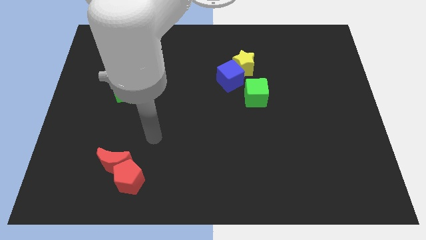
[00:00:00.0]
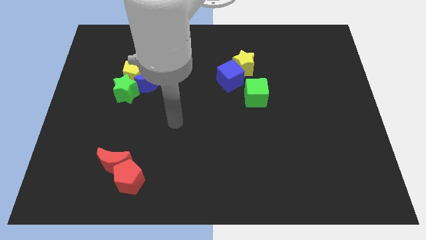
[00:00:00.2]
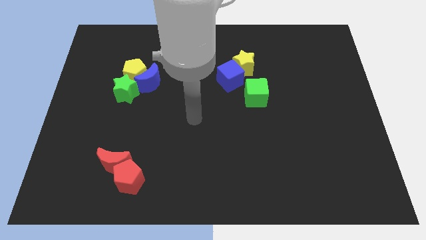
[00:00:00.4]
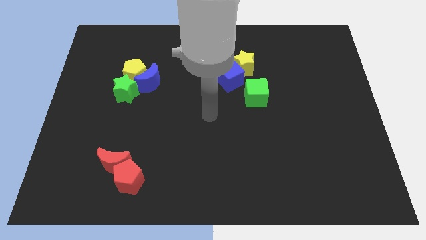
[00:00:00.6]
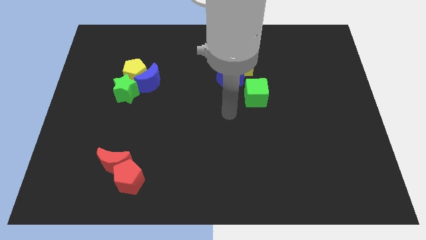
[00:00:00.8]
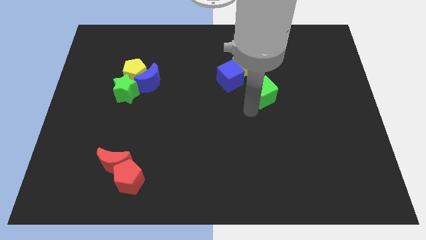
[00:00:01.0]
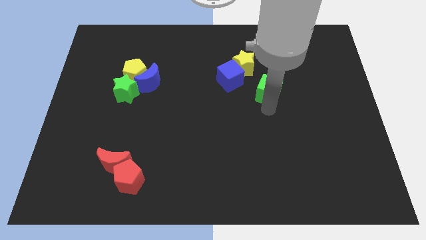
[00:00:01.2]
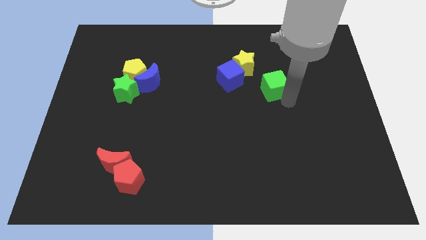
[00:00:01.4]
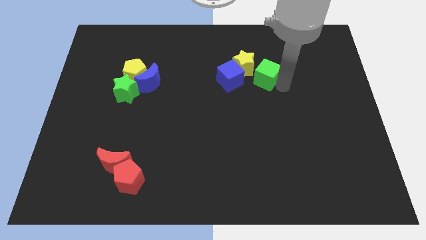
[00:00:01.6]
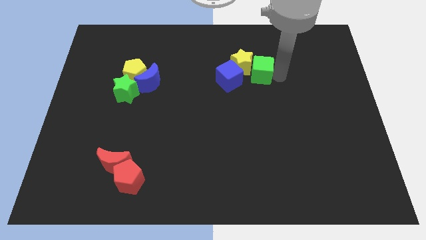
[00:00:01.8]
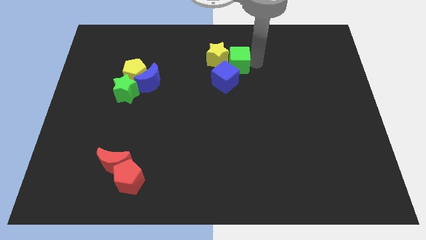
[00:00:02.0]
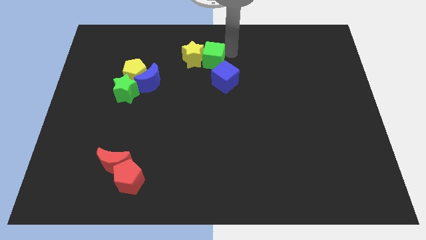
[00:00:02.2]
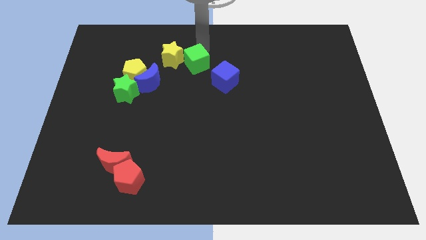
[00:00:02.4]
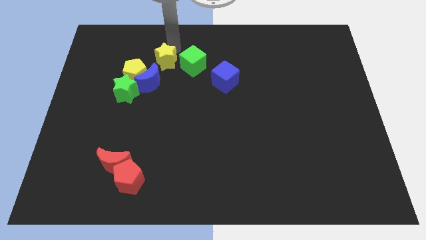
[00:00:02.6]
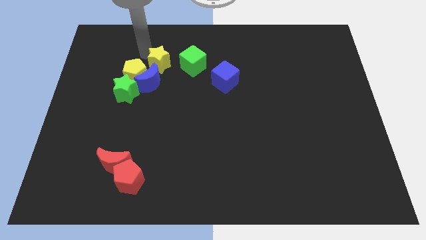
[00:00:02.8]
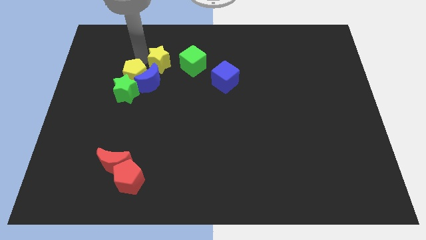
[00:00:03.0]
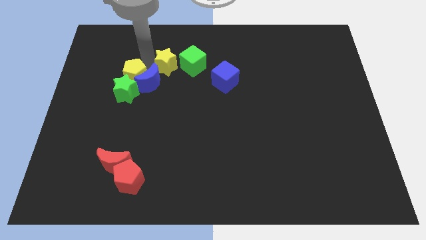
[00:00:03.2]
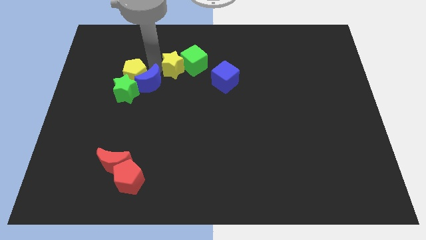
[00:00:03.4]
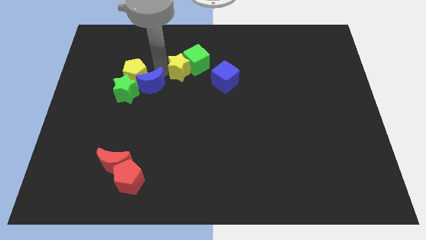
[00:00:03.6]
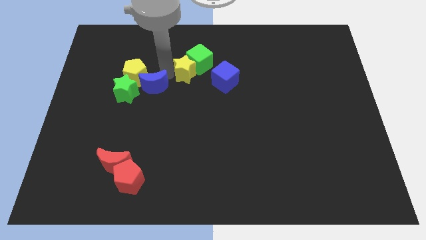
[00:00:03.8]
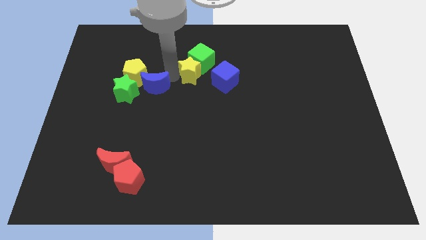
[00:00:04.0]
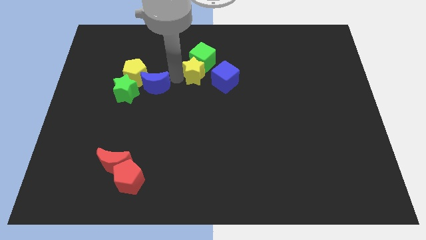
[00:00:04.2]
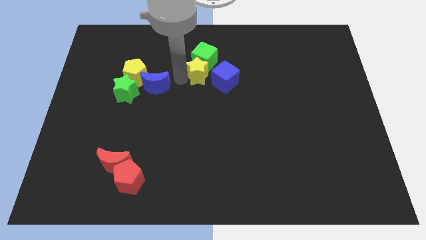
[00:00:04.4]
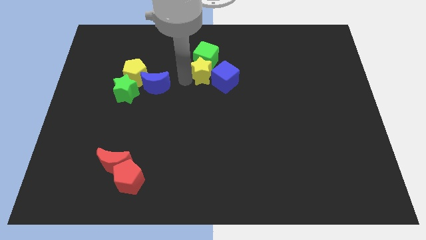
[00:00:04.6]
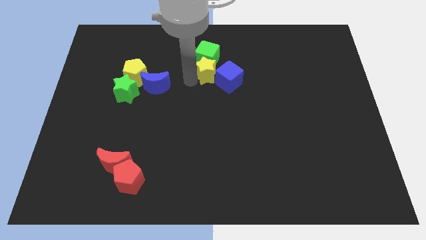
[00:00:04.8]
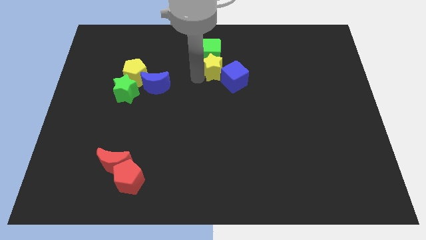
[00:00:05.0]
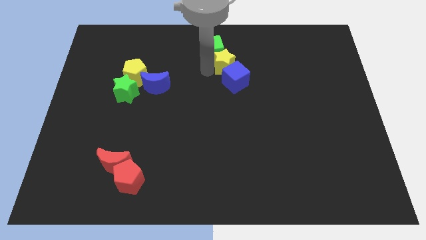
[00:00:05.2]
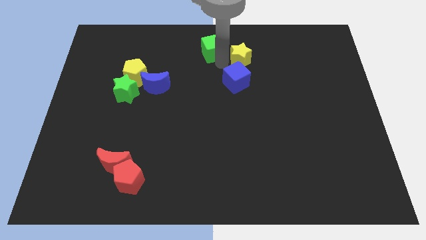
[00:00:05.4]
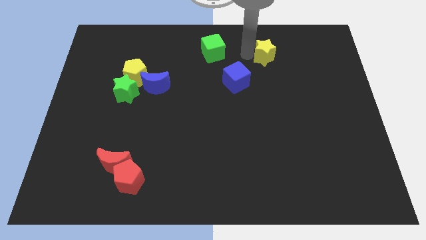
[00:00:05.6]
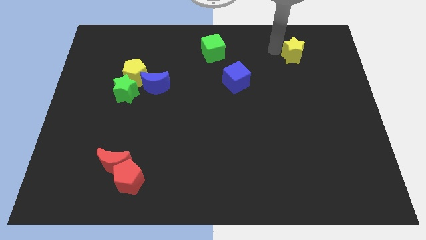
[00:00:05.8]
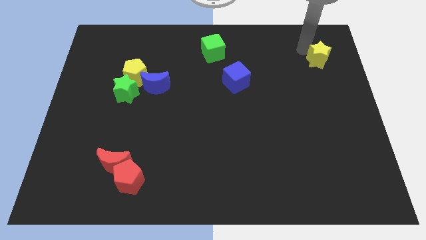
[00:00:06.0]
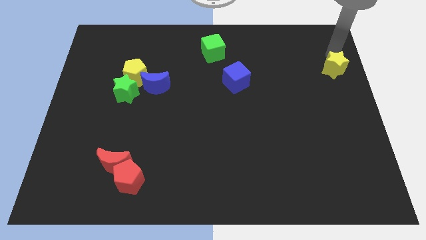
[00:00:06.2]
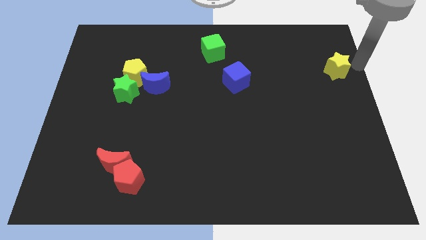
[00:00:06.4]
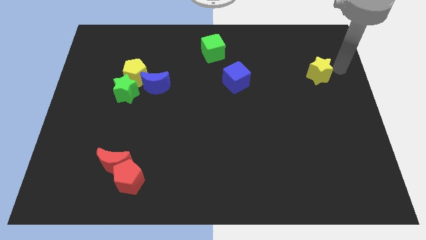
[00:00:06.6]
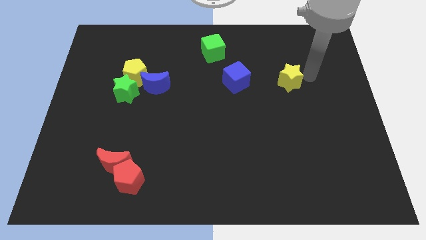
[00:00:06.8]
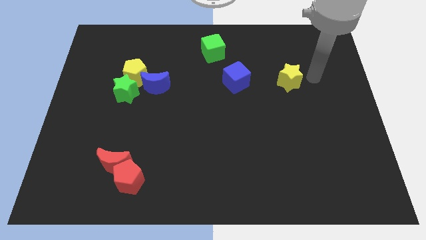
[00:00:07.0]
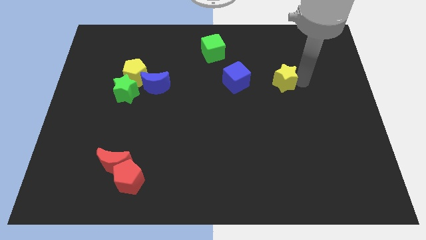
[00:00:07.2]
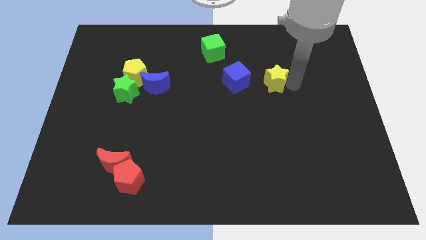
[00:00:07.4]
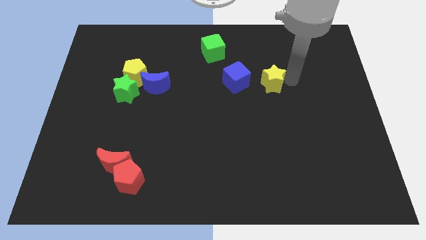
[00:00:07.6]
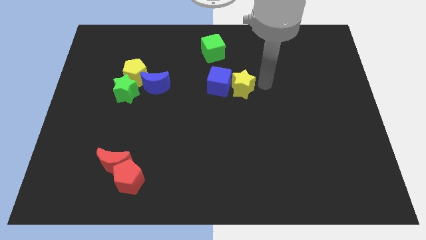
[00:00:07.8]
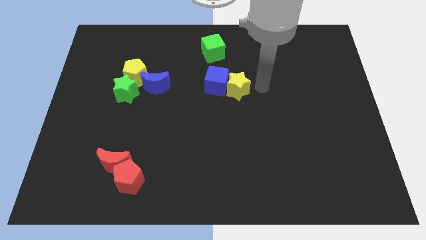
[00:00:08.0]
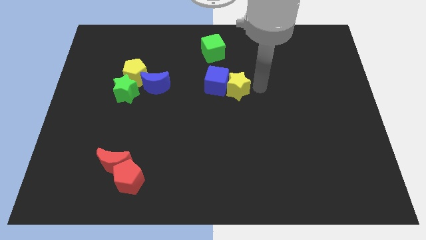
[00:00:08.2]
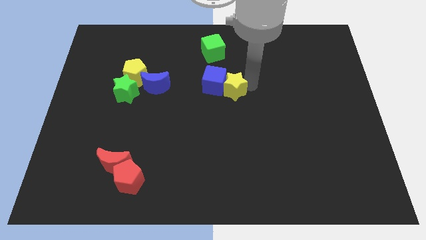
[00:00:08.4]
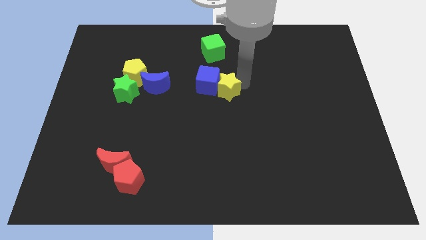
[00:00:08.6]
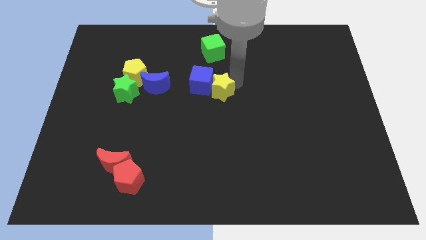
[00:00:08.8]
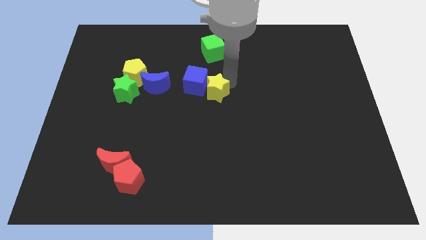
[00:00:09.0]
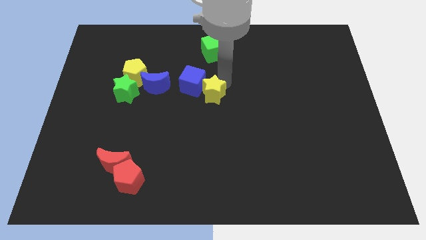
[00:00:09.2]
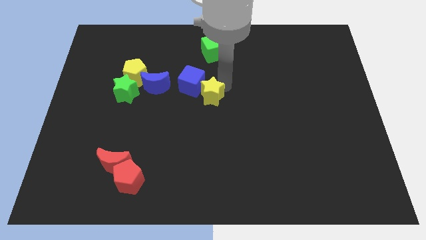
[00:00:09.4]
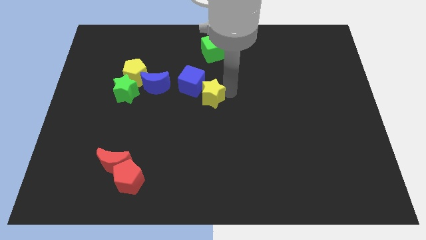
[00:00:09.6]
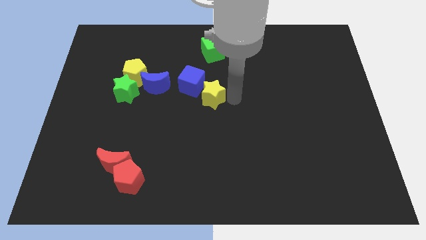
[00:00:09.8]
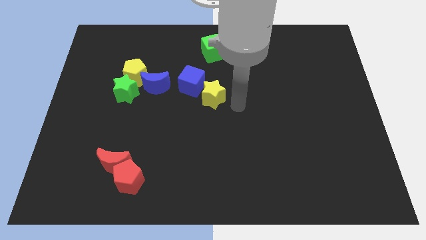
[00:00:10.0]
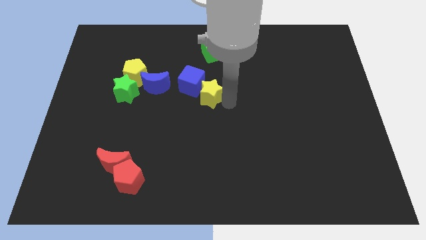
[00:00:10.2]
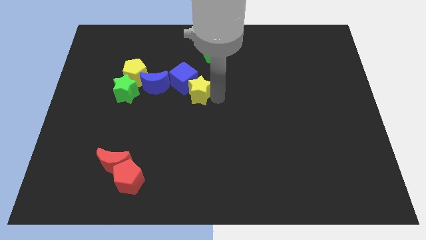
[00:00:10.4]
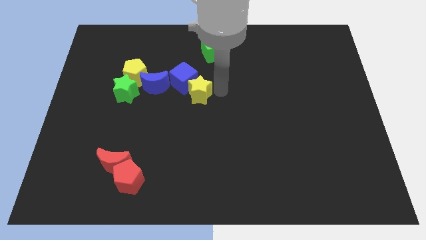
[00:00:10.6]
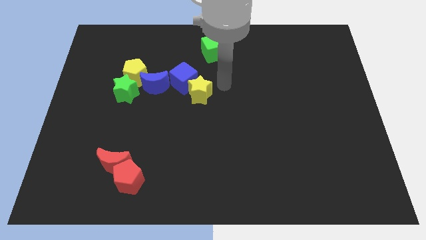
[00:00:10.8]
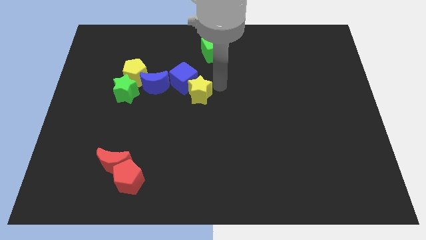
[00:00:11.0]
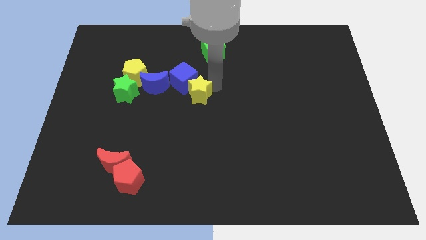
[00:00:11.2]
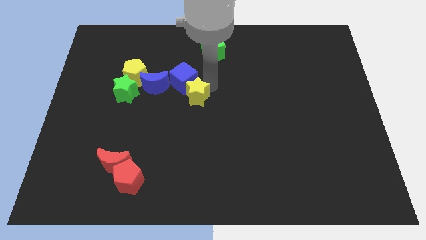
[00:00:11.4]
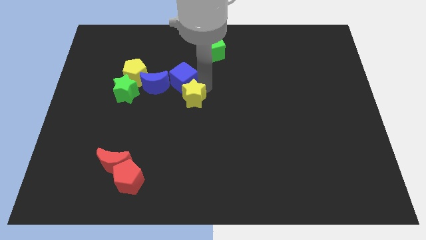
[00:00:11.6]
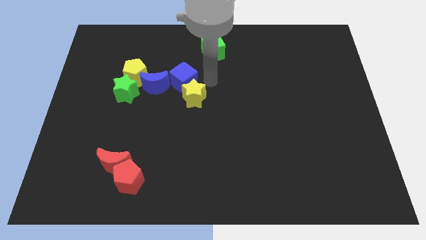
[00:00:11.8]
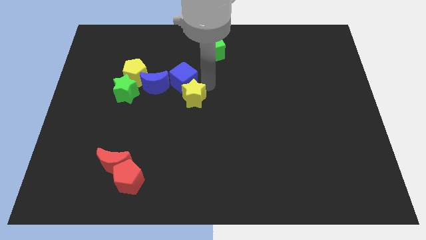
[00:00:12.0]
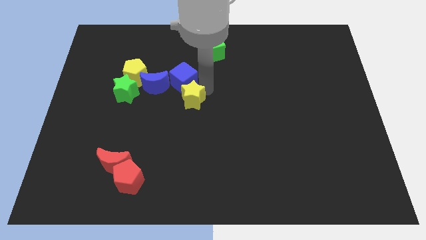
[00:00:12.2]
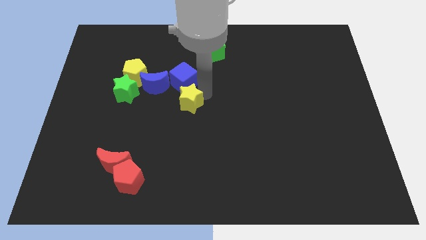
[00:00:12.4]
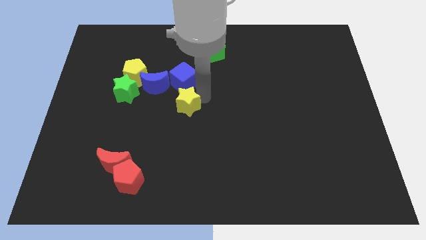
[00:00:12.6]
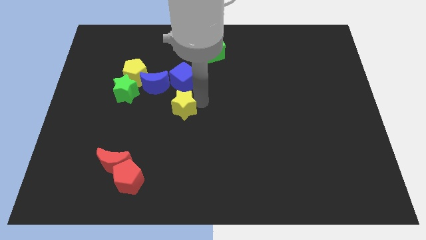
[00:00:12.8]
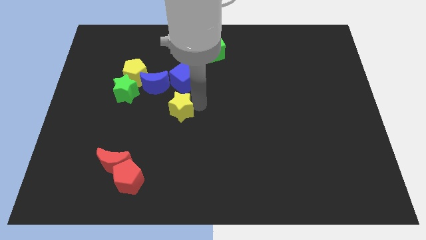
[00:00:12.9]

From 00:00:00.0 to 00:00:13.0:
move the yellow star down and to the left

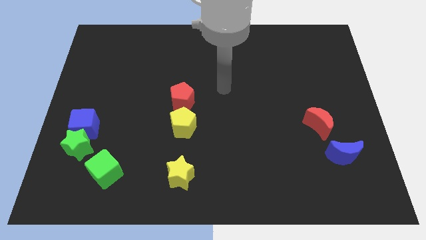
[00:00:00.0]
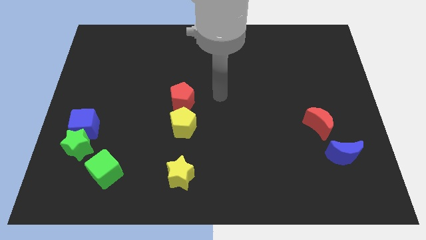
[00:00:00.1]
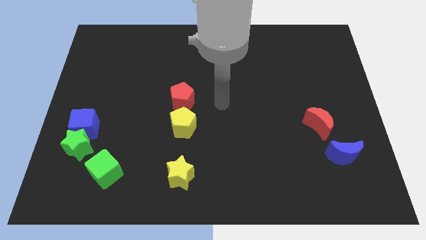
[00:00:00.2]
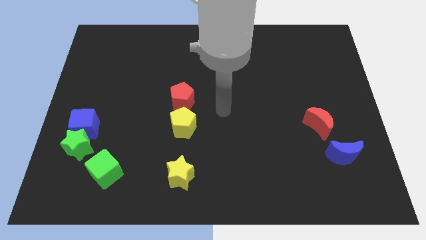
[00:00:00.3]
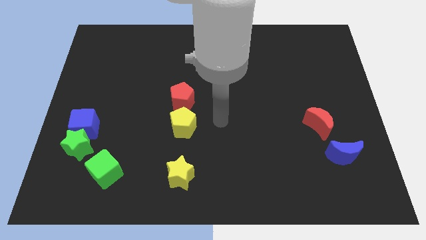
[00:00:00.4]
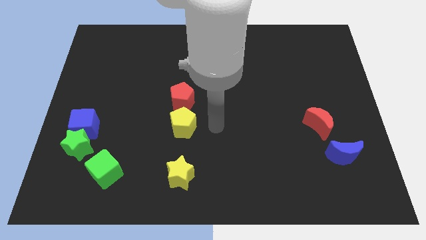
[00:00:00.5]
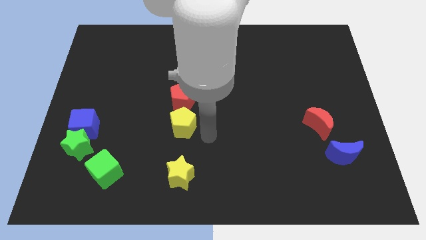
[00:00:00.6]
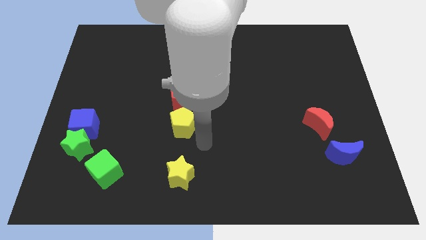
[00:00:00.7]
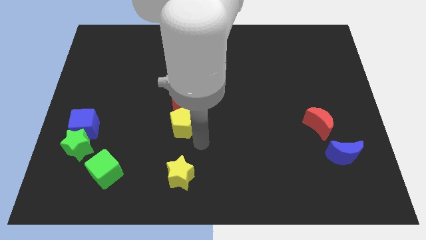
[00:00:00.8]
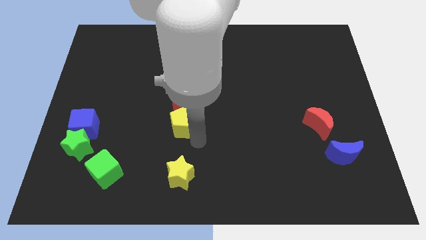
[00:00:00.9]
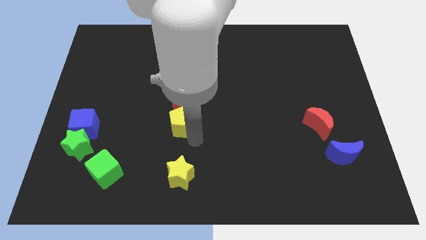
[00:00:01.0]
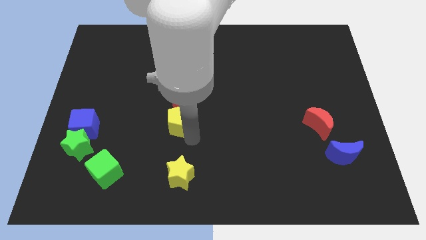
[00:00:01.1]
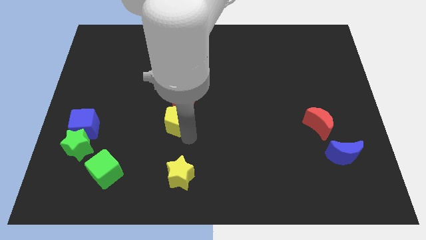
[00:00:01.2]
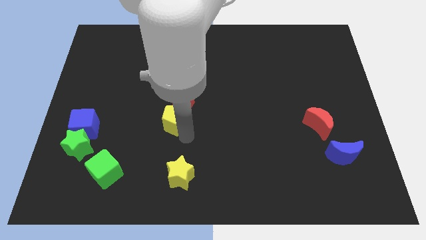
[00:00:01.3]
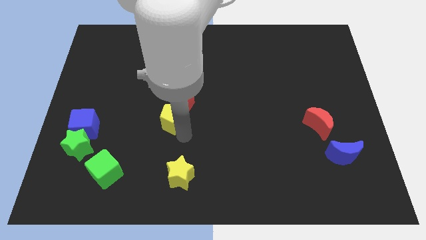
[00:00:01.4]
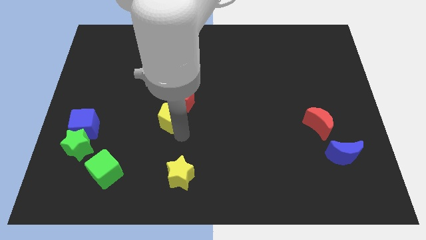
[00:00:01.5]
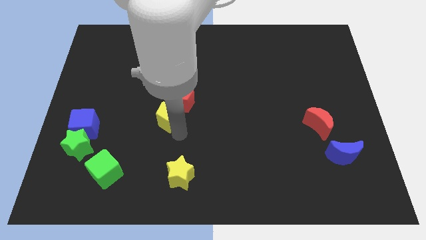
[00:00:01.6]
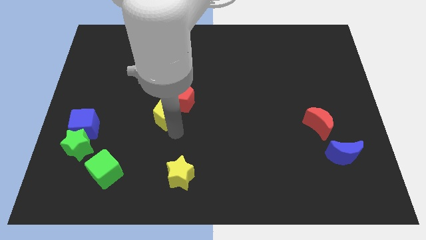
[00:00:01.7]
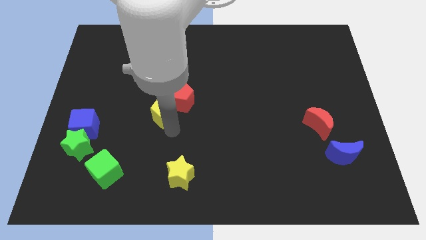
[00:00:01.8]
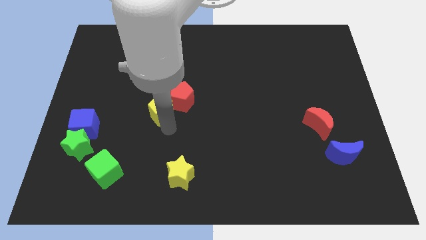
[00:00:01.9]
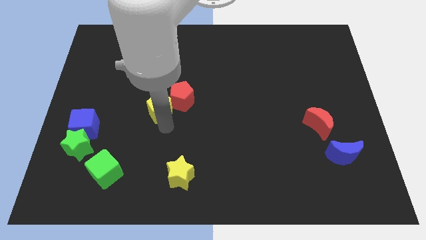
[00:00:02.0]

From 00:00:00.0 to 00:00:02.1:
move the yellow pentagon somewhat diagonally up and to the left
